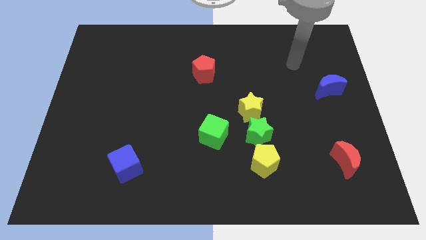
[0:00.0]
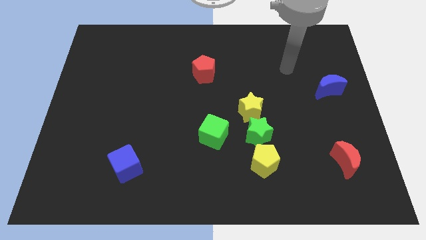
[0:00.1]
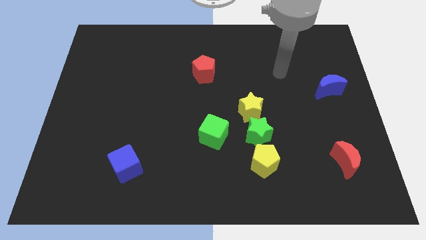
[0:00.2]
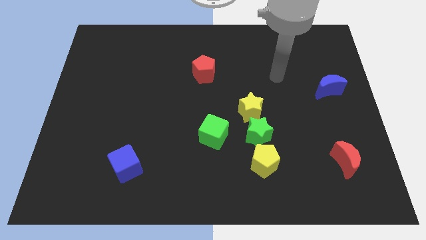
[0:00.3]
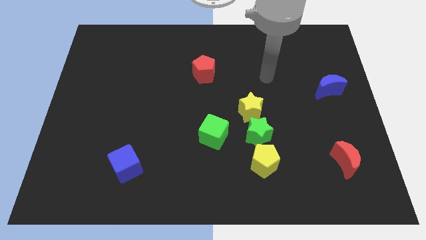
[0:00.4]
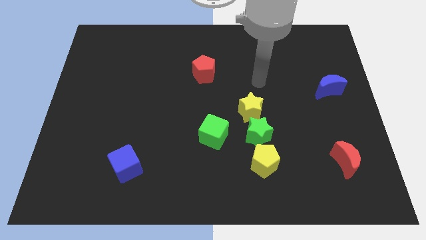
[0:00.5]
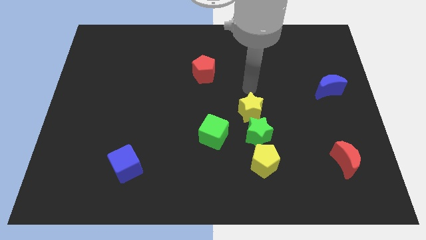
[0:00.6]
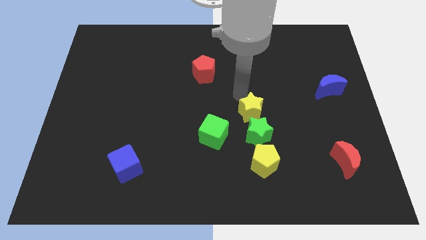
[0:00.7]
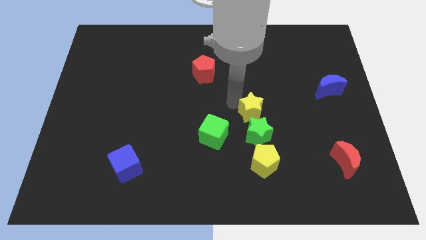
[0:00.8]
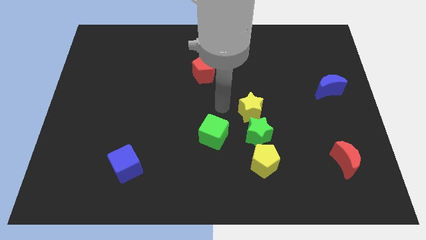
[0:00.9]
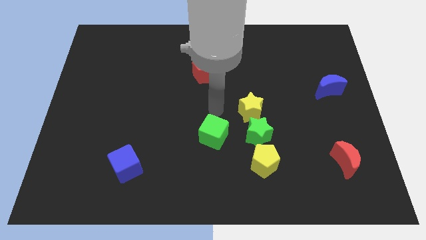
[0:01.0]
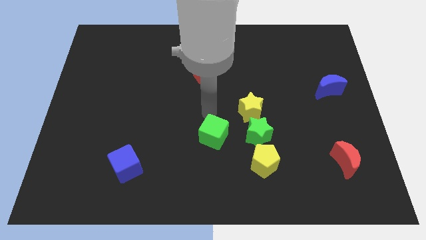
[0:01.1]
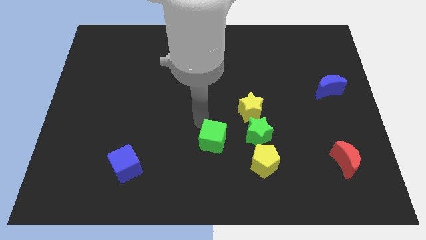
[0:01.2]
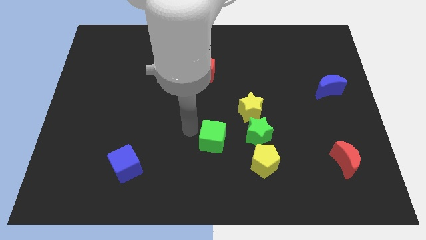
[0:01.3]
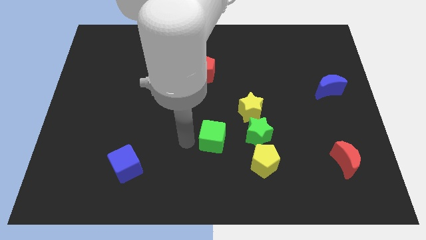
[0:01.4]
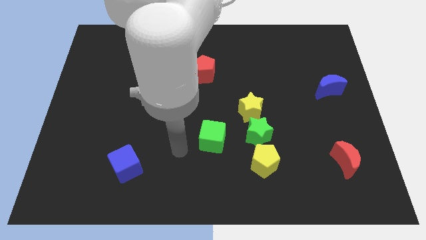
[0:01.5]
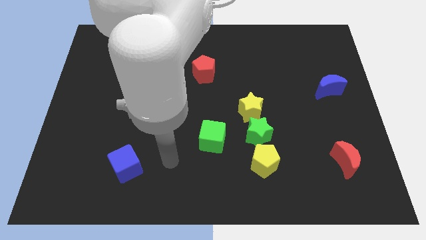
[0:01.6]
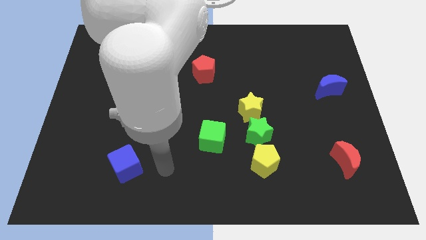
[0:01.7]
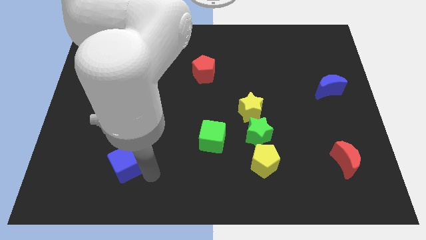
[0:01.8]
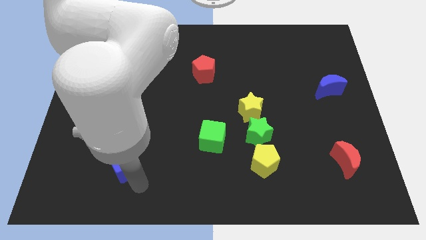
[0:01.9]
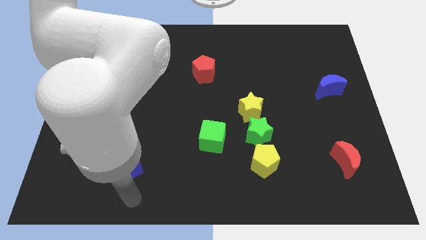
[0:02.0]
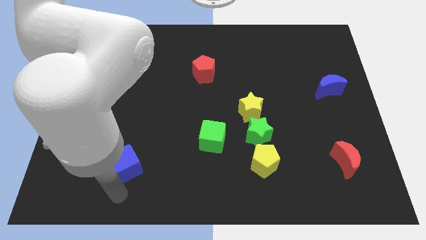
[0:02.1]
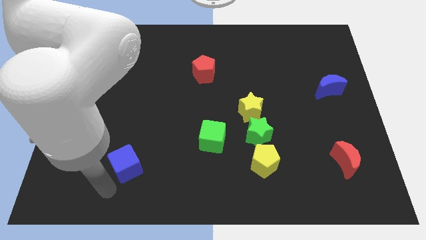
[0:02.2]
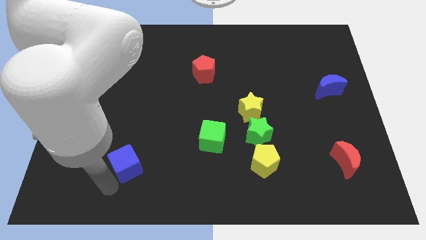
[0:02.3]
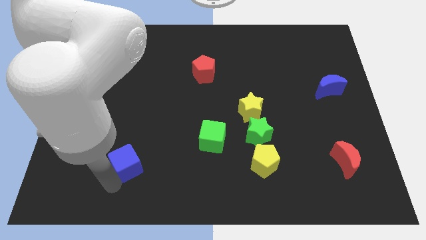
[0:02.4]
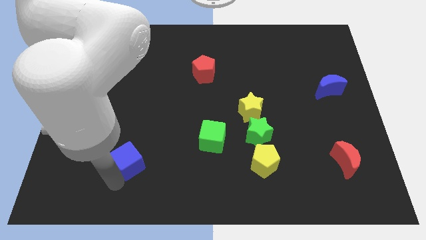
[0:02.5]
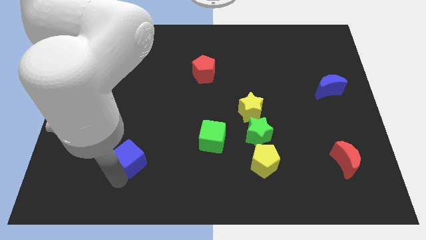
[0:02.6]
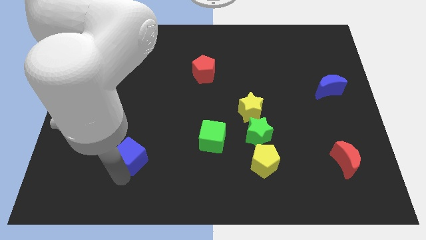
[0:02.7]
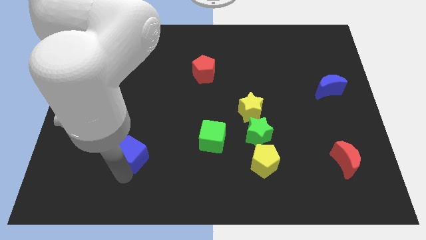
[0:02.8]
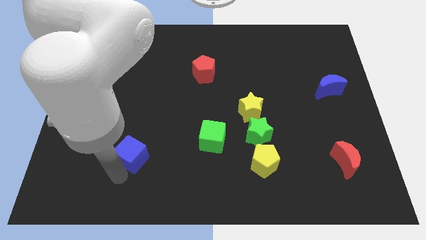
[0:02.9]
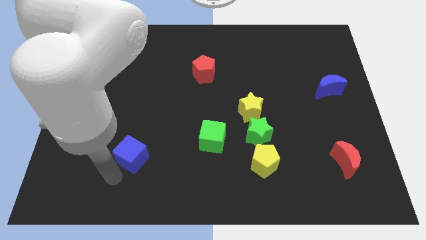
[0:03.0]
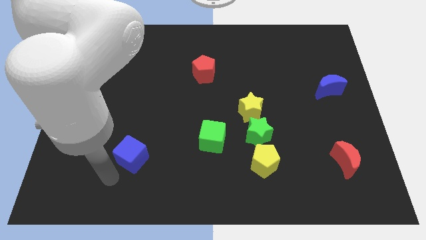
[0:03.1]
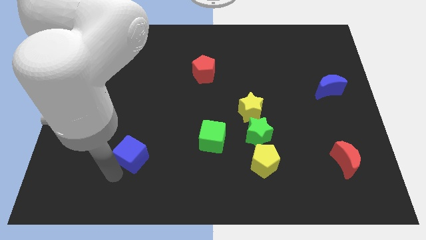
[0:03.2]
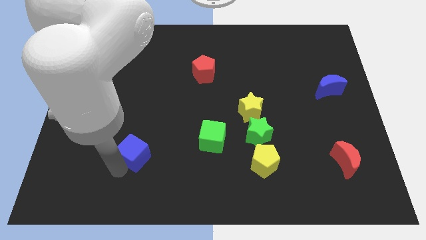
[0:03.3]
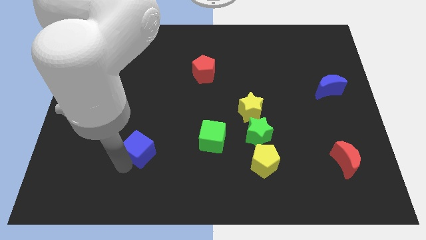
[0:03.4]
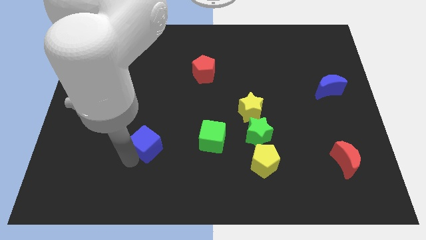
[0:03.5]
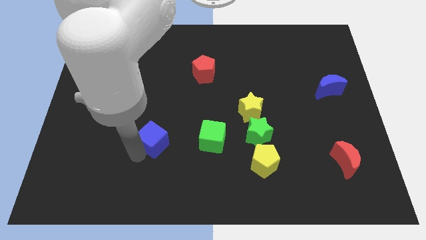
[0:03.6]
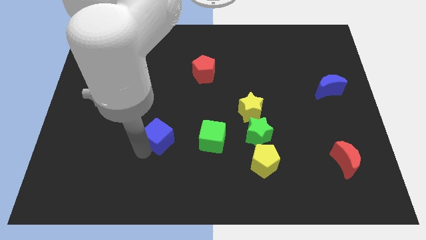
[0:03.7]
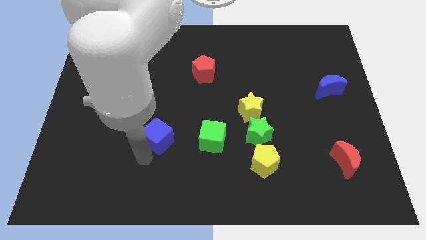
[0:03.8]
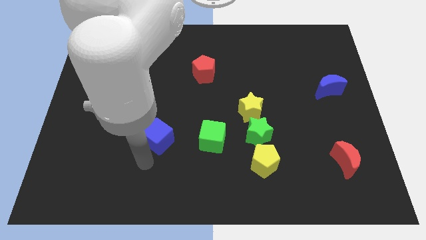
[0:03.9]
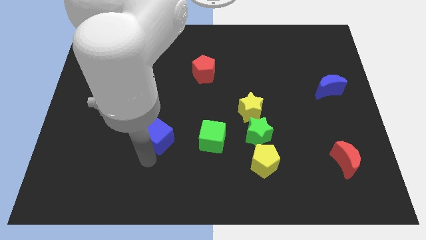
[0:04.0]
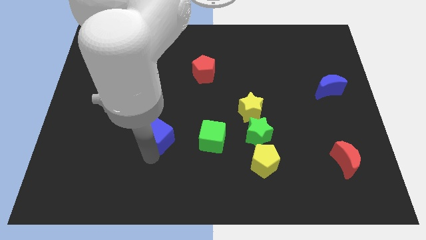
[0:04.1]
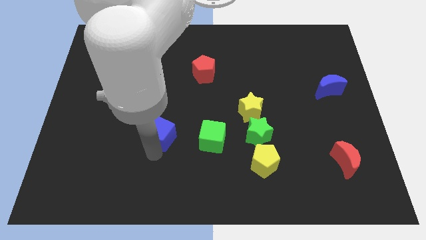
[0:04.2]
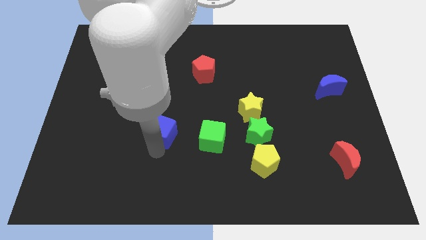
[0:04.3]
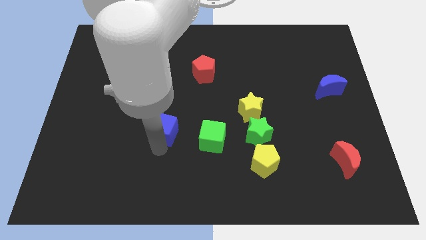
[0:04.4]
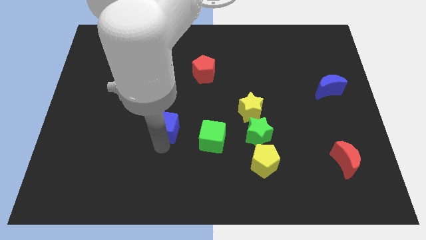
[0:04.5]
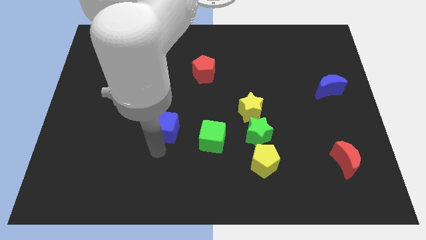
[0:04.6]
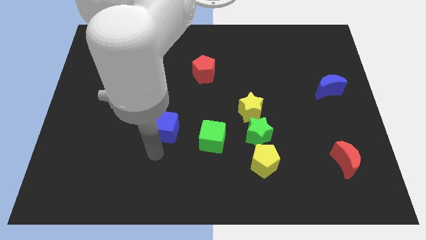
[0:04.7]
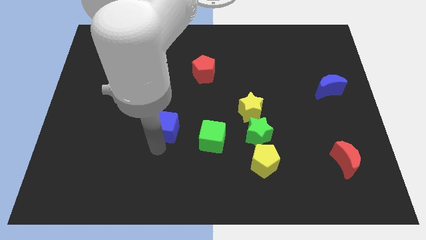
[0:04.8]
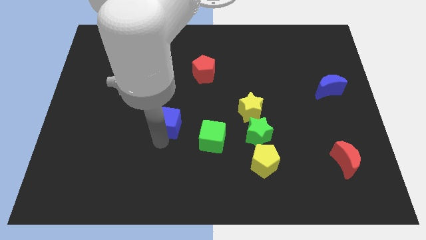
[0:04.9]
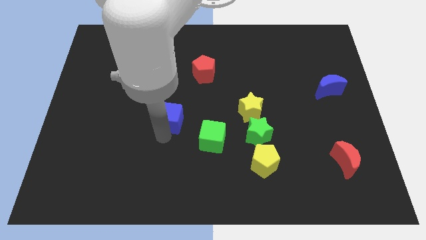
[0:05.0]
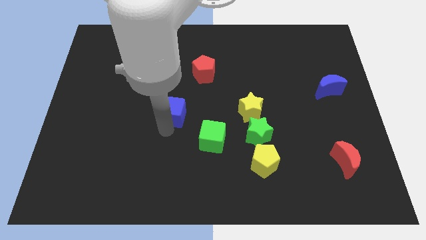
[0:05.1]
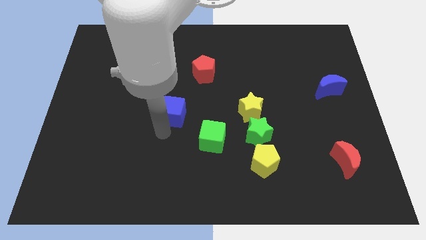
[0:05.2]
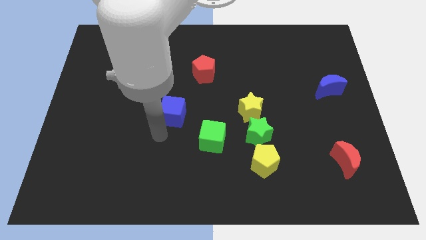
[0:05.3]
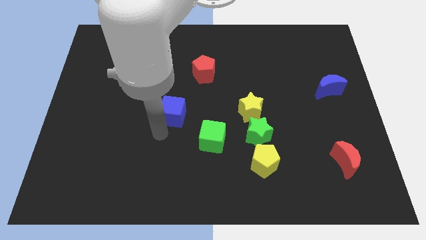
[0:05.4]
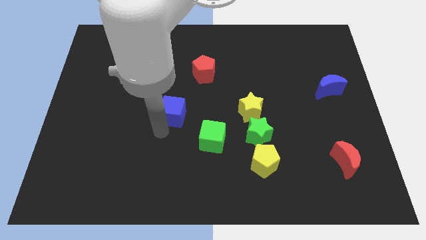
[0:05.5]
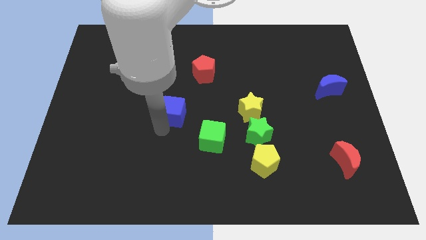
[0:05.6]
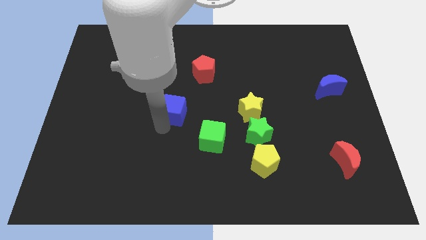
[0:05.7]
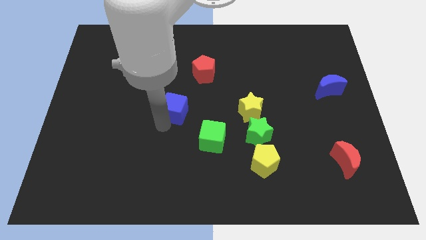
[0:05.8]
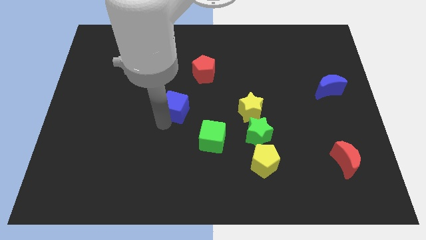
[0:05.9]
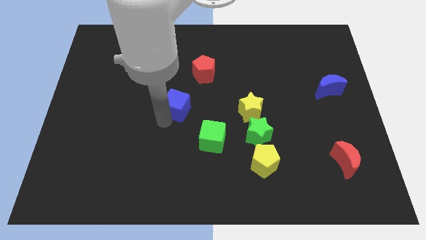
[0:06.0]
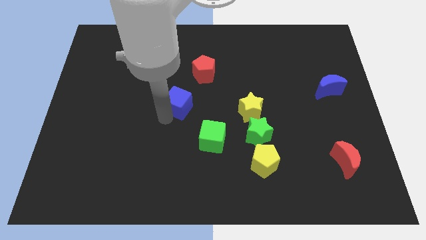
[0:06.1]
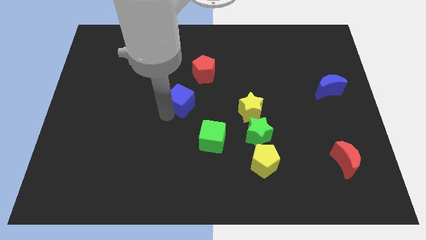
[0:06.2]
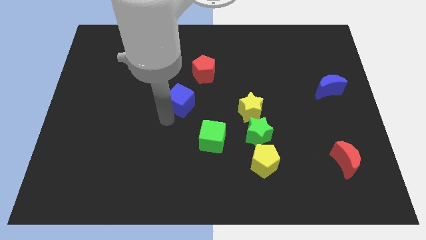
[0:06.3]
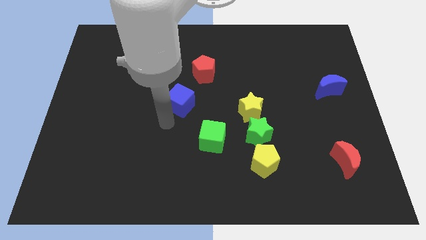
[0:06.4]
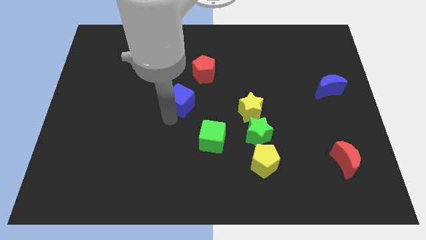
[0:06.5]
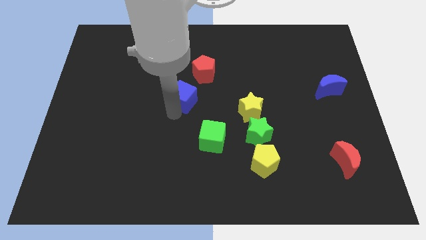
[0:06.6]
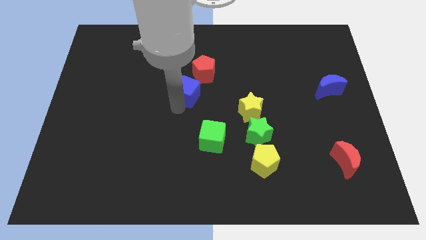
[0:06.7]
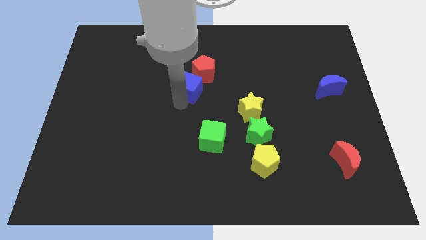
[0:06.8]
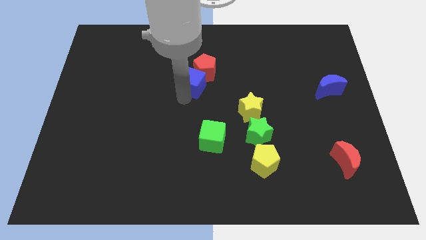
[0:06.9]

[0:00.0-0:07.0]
push the blue cube next to the red pentagon
